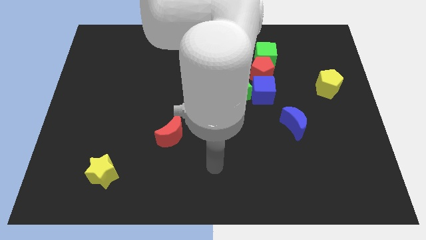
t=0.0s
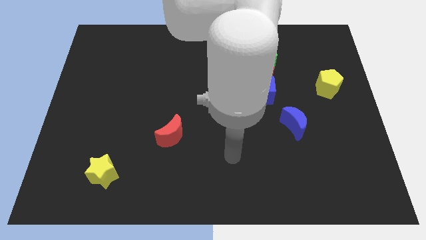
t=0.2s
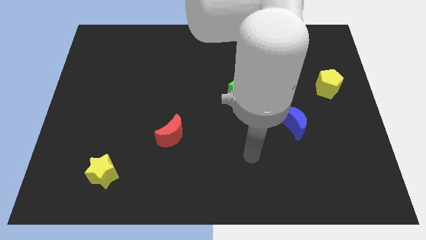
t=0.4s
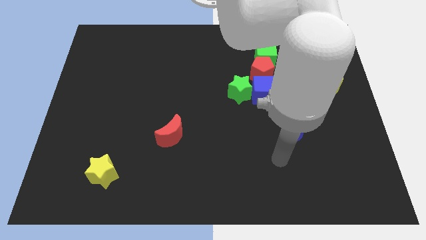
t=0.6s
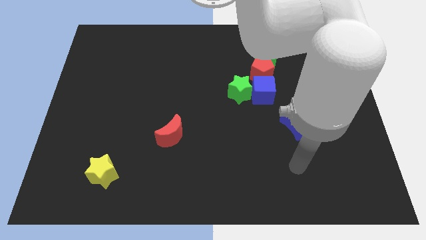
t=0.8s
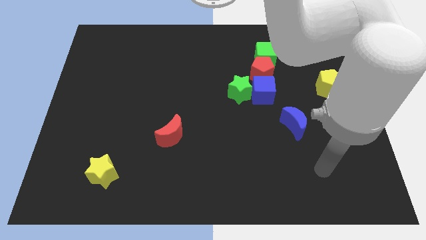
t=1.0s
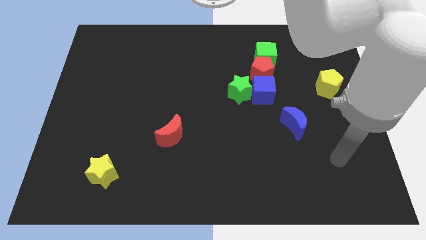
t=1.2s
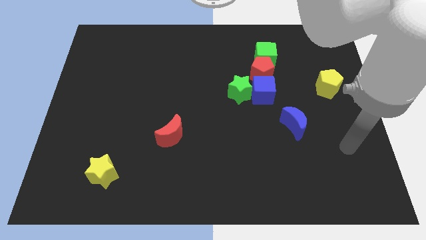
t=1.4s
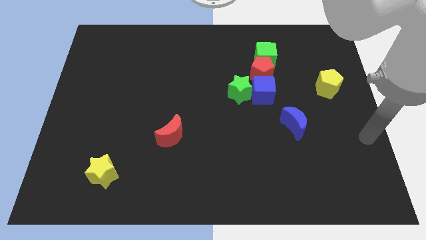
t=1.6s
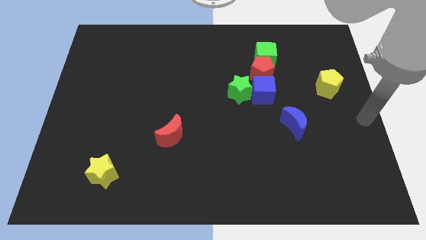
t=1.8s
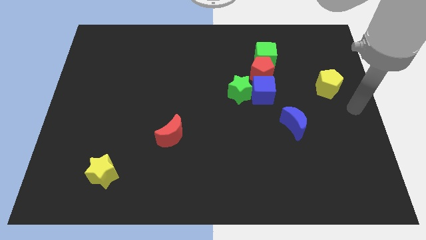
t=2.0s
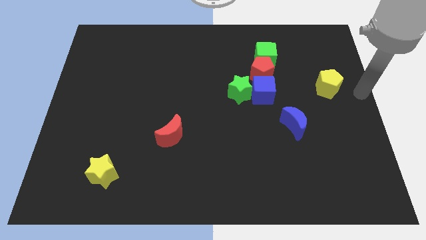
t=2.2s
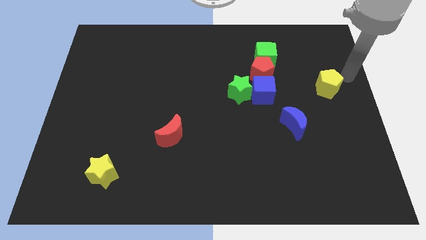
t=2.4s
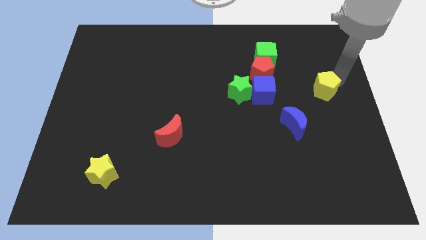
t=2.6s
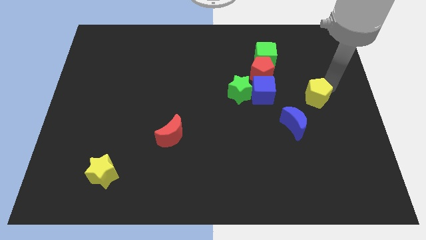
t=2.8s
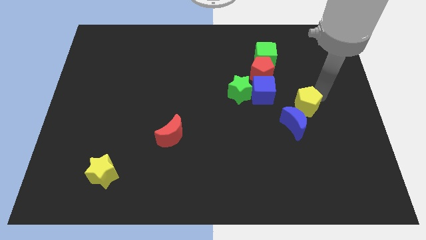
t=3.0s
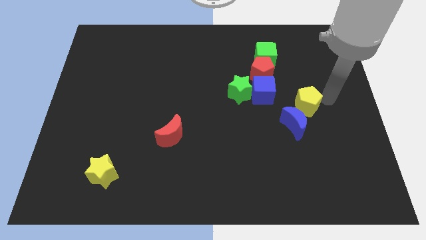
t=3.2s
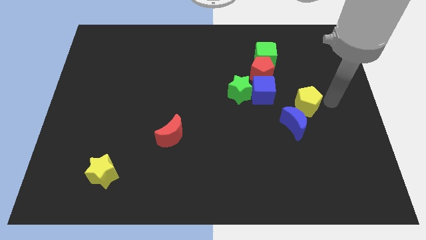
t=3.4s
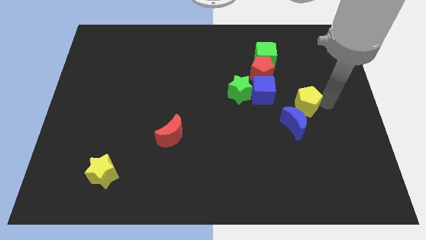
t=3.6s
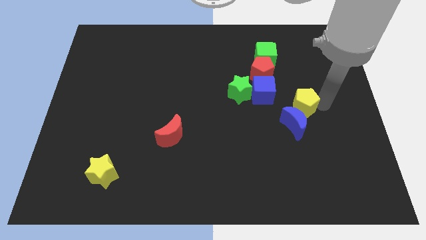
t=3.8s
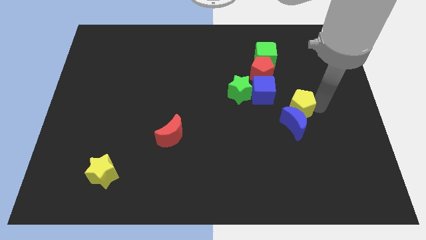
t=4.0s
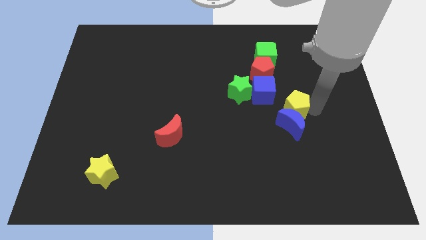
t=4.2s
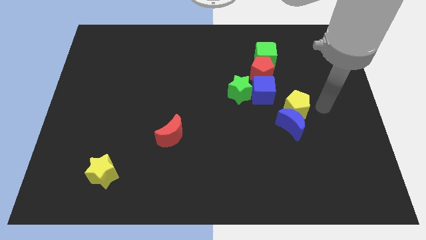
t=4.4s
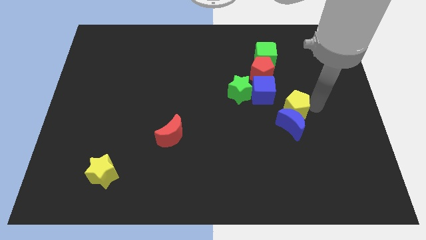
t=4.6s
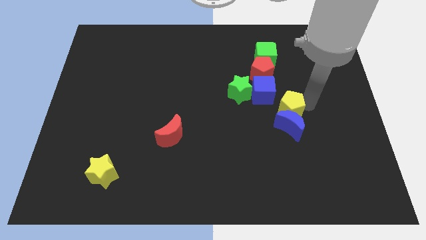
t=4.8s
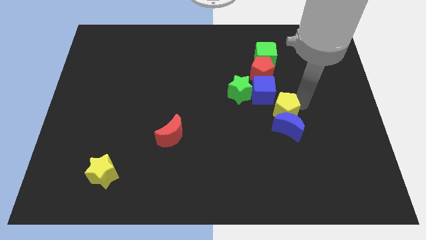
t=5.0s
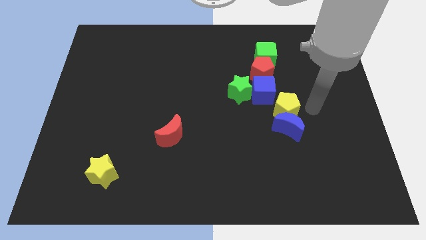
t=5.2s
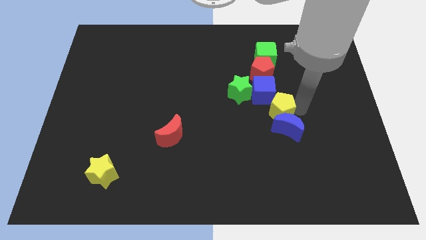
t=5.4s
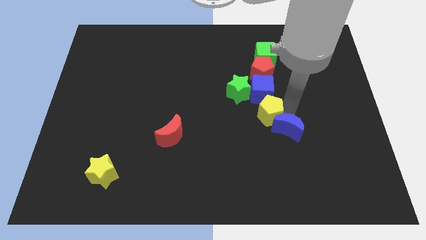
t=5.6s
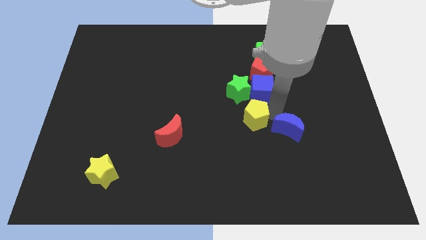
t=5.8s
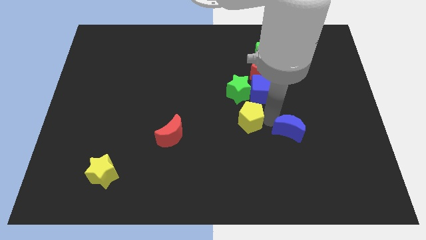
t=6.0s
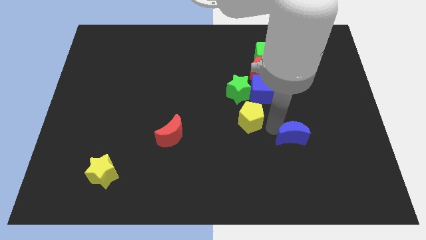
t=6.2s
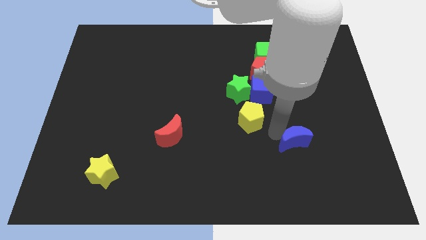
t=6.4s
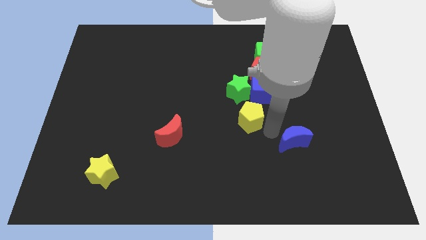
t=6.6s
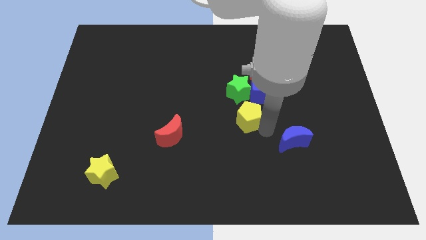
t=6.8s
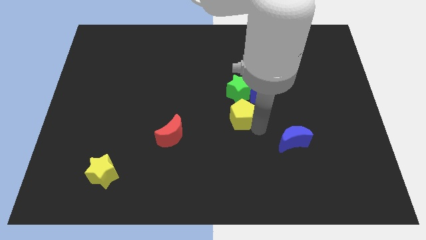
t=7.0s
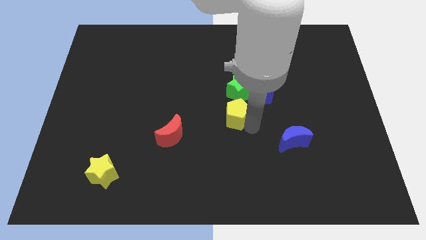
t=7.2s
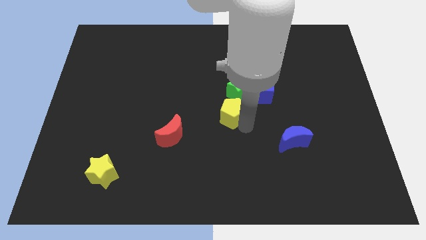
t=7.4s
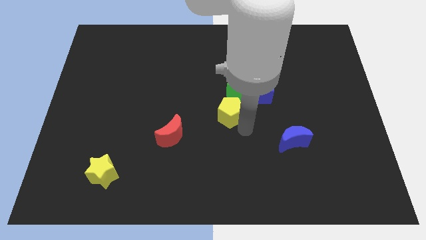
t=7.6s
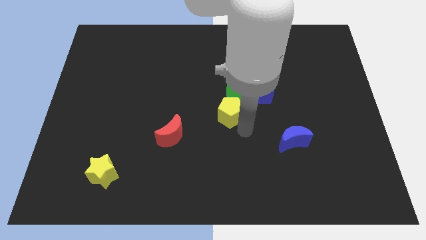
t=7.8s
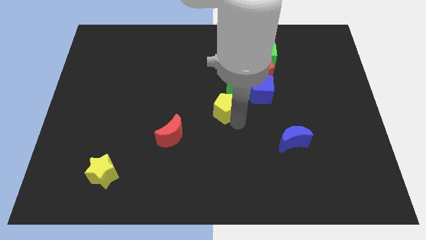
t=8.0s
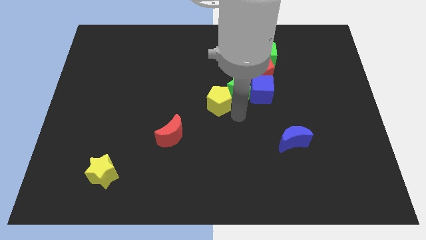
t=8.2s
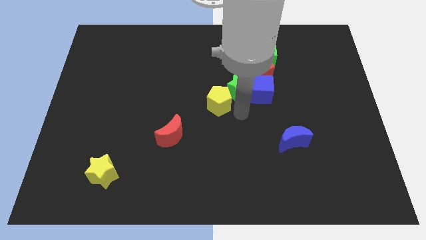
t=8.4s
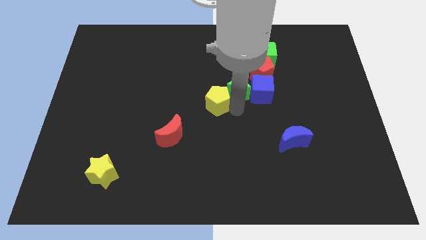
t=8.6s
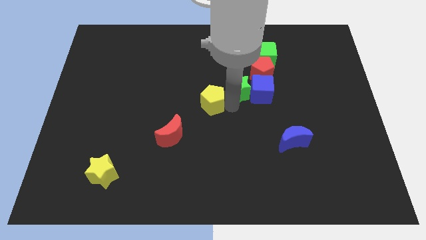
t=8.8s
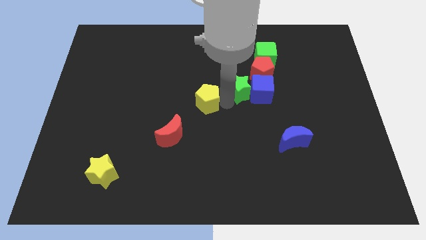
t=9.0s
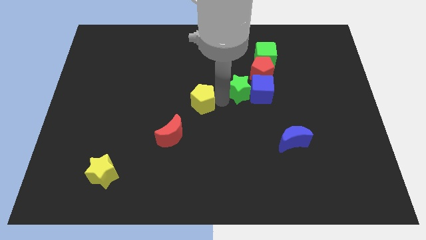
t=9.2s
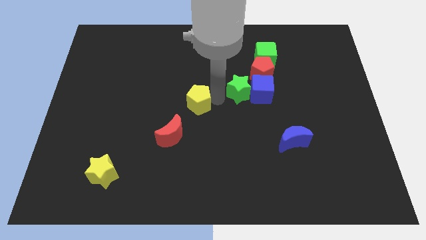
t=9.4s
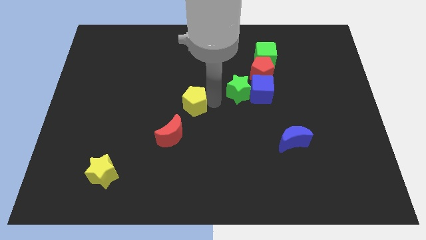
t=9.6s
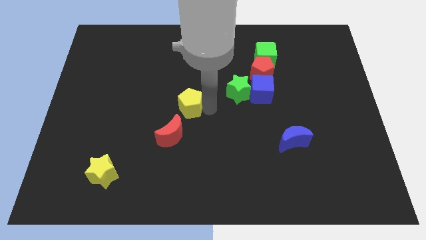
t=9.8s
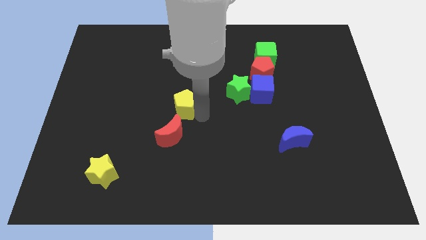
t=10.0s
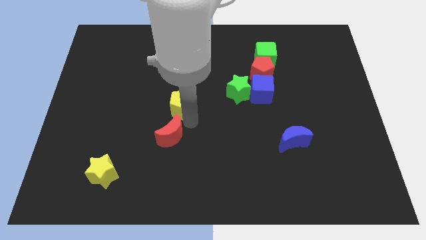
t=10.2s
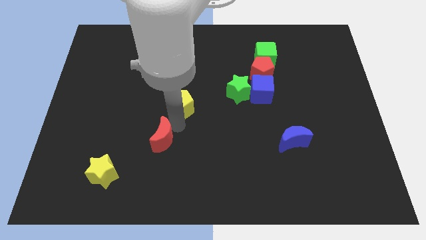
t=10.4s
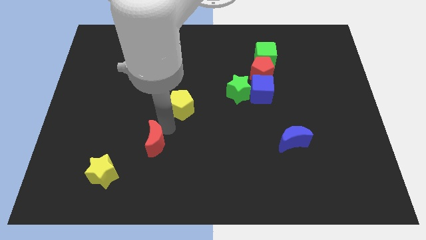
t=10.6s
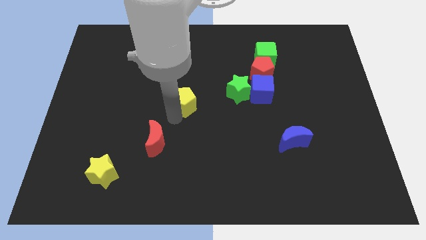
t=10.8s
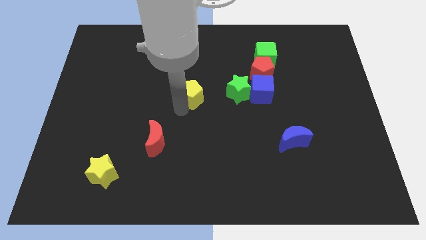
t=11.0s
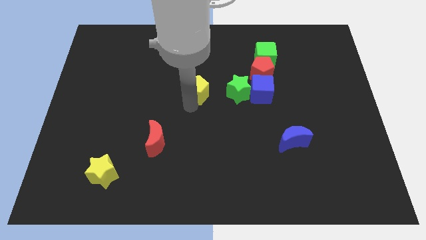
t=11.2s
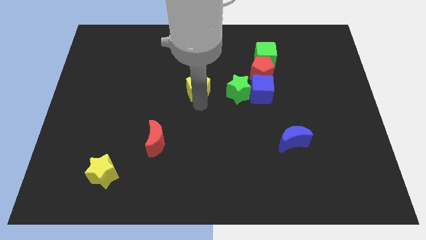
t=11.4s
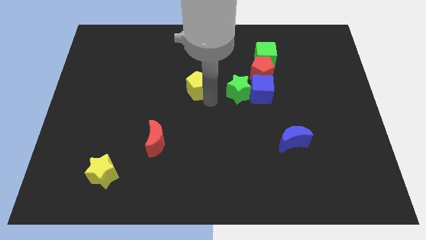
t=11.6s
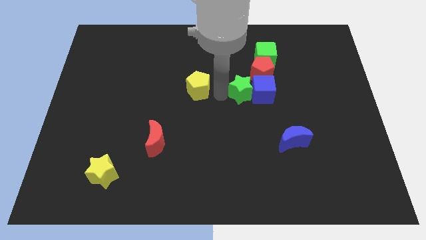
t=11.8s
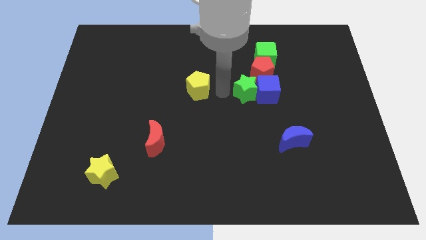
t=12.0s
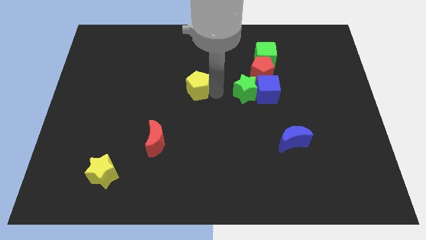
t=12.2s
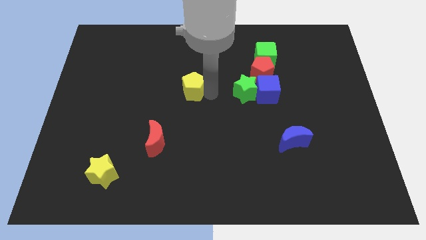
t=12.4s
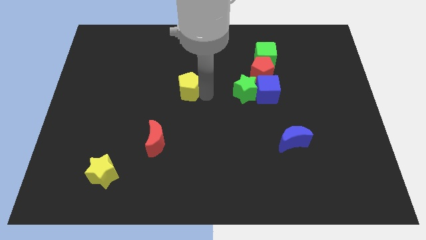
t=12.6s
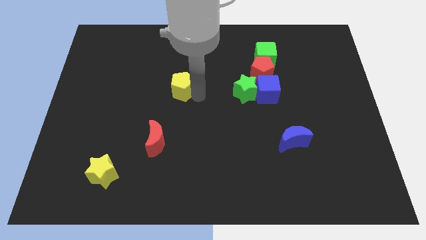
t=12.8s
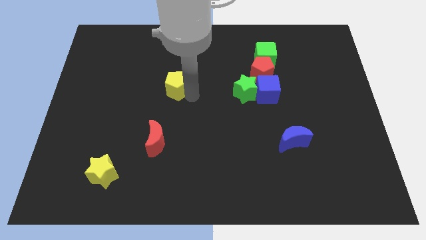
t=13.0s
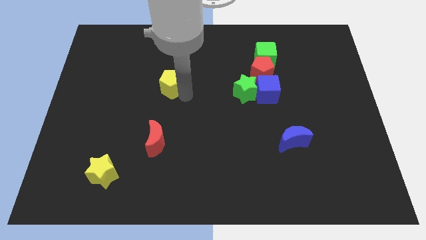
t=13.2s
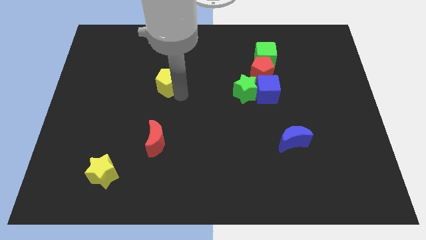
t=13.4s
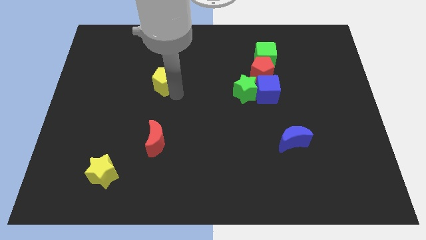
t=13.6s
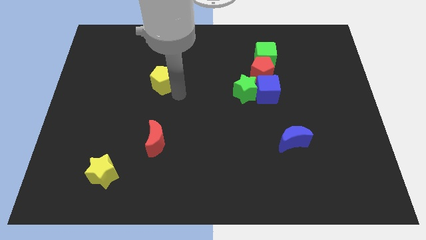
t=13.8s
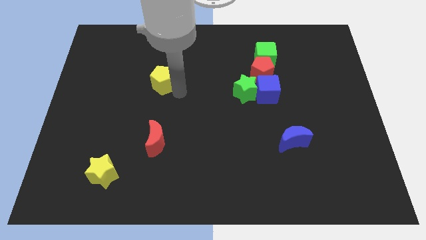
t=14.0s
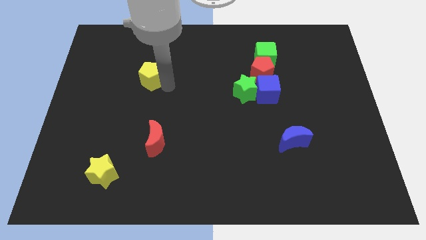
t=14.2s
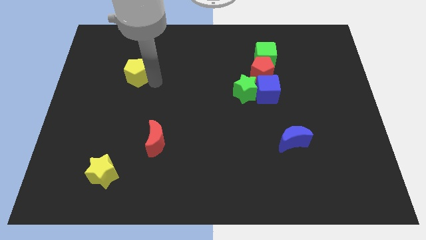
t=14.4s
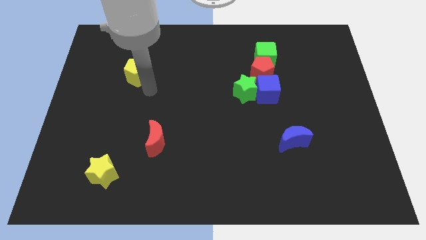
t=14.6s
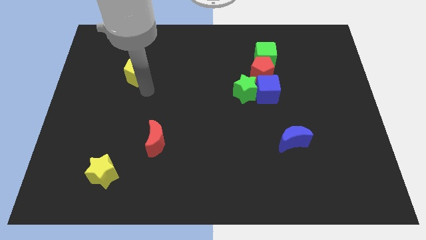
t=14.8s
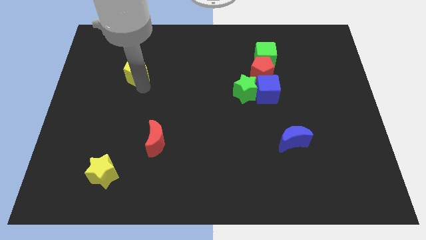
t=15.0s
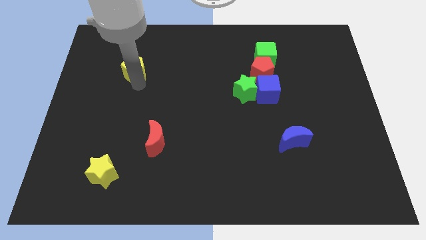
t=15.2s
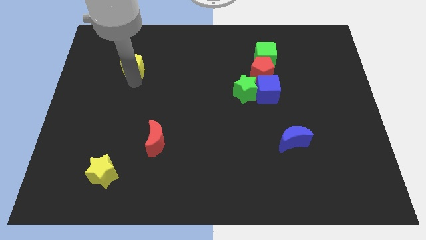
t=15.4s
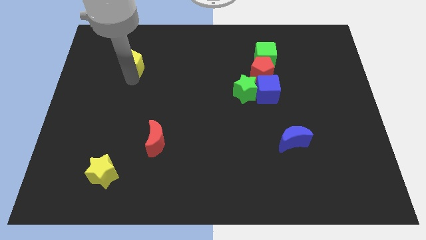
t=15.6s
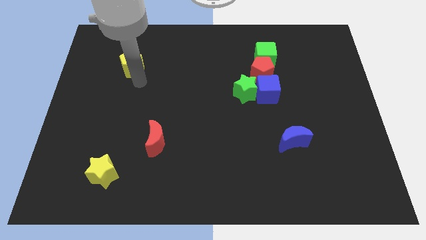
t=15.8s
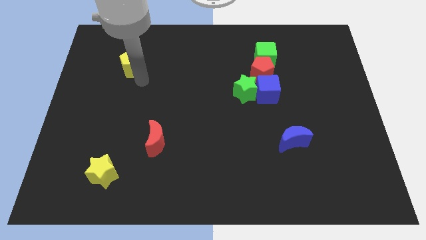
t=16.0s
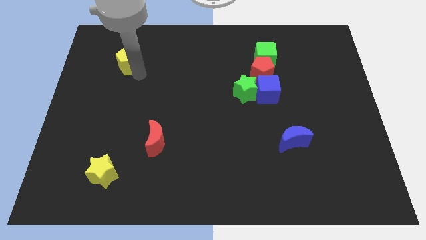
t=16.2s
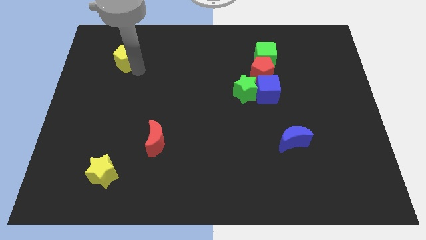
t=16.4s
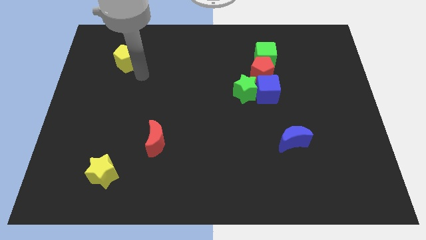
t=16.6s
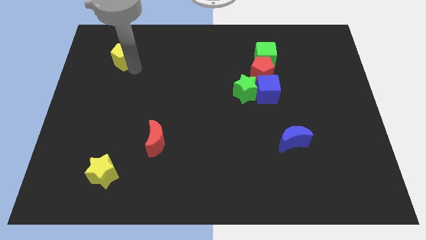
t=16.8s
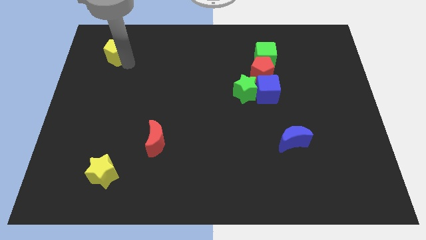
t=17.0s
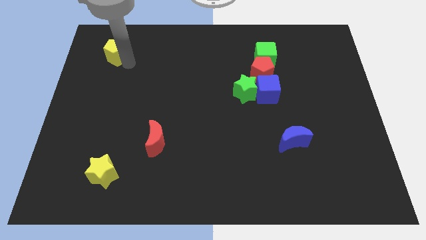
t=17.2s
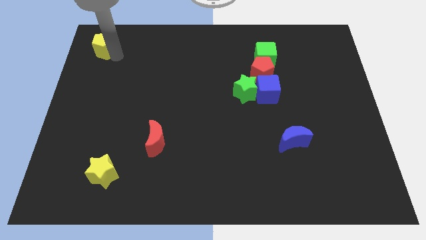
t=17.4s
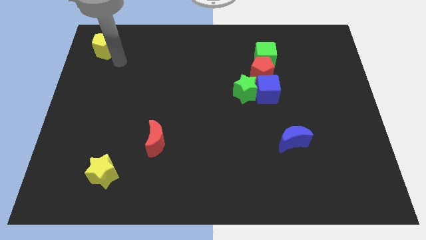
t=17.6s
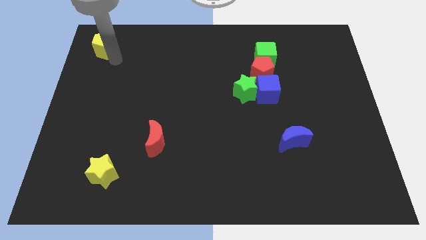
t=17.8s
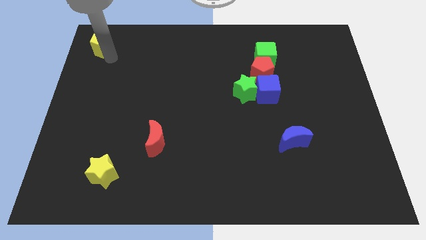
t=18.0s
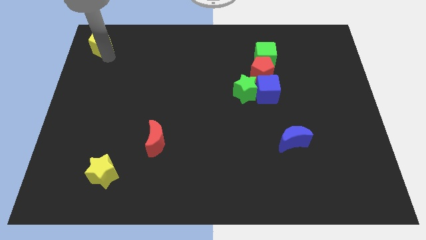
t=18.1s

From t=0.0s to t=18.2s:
move the yellow pentagon to the top left corner
